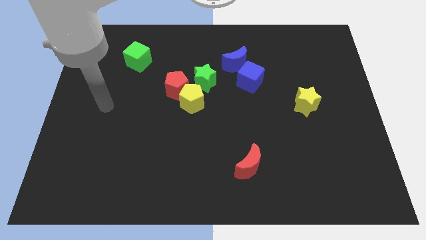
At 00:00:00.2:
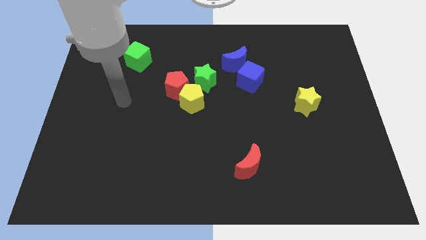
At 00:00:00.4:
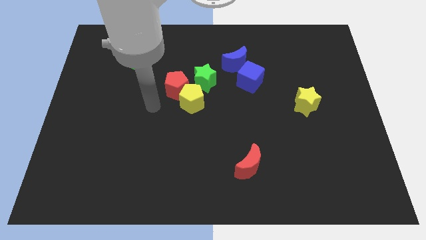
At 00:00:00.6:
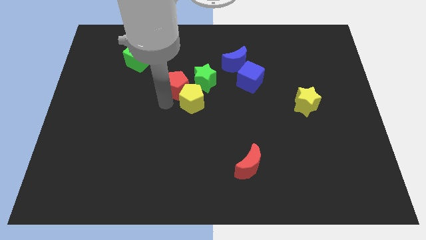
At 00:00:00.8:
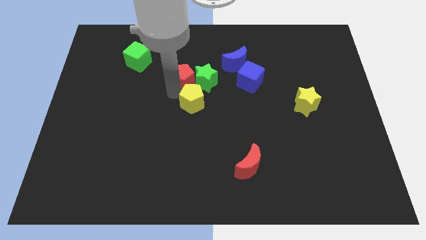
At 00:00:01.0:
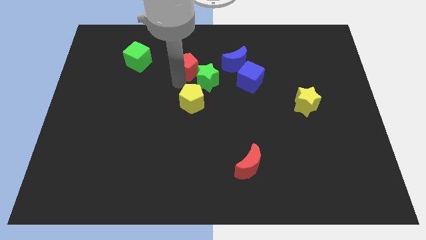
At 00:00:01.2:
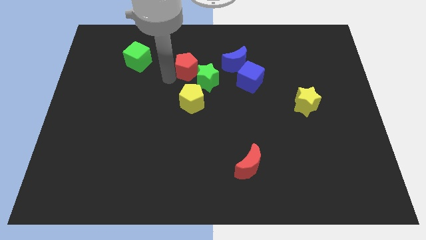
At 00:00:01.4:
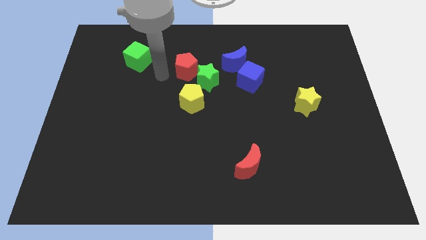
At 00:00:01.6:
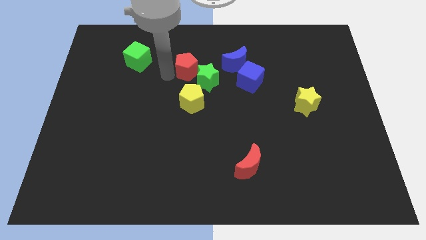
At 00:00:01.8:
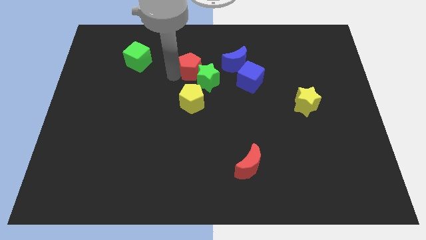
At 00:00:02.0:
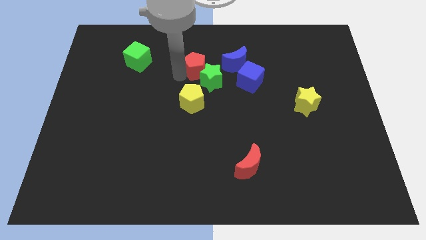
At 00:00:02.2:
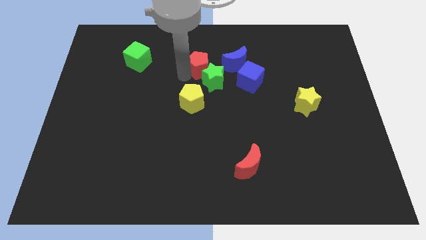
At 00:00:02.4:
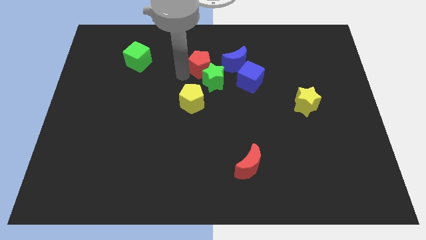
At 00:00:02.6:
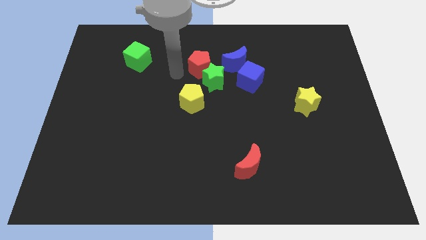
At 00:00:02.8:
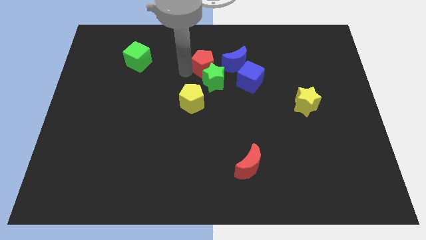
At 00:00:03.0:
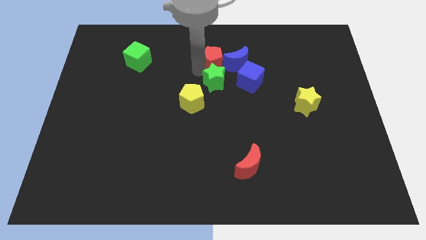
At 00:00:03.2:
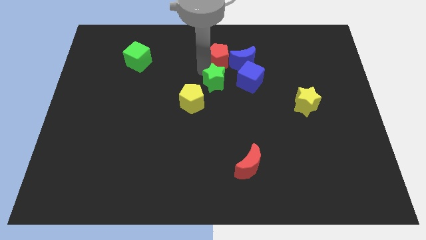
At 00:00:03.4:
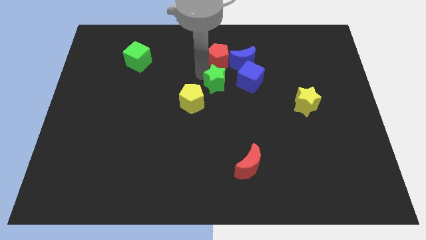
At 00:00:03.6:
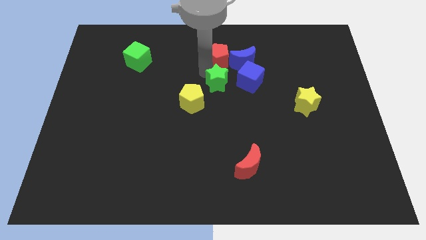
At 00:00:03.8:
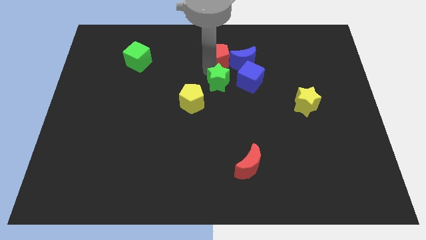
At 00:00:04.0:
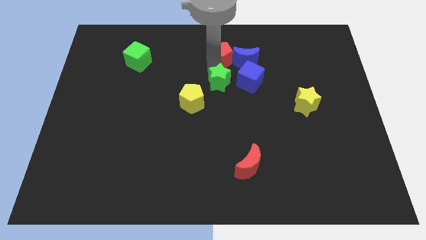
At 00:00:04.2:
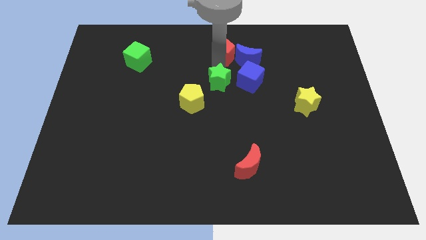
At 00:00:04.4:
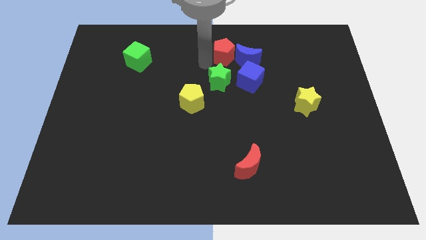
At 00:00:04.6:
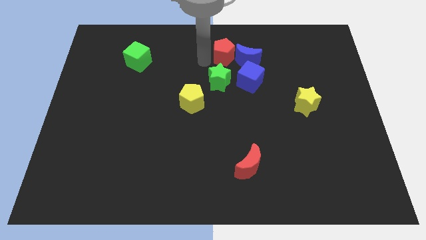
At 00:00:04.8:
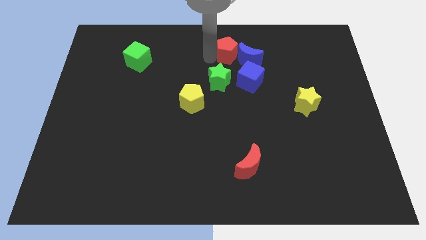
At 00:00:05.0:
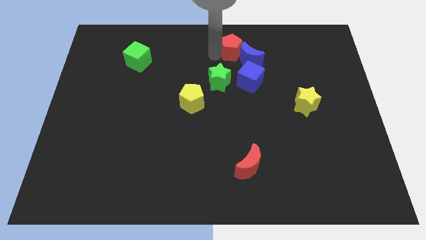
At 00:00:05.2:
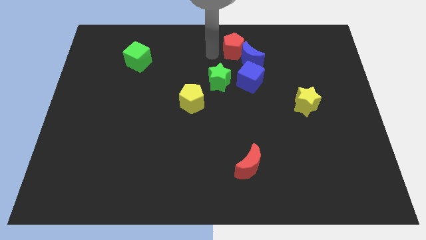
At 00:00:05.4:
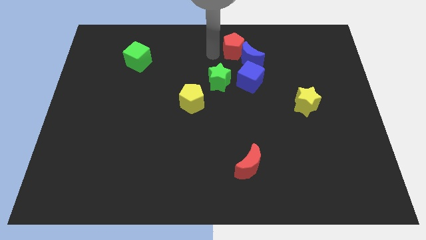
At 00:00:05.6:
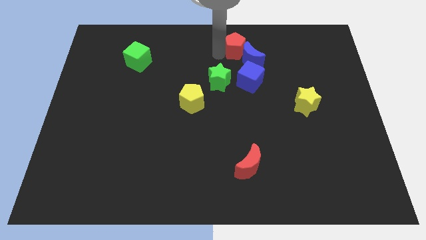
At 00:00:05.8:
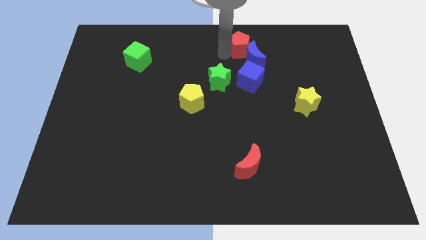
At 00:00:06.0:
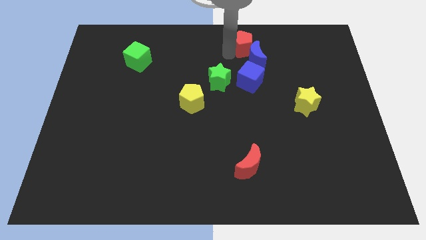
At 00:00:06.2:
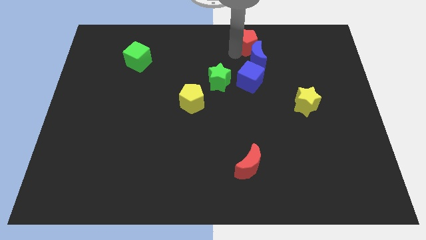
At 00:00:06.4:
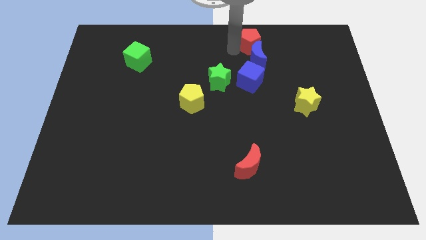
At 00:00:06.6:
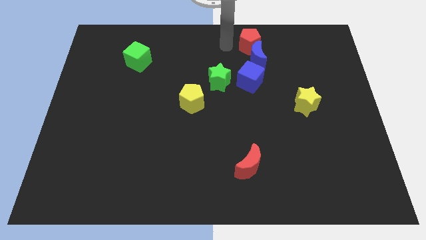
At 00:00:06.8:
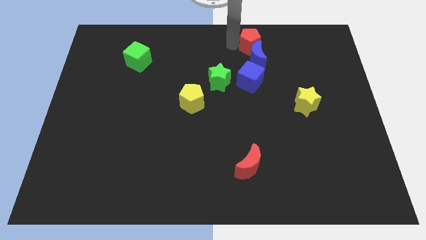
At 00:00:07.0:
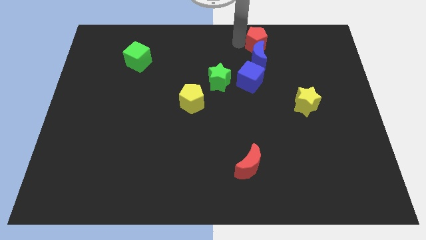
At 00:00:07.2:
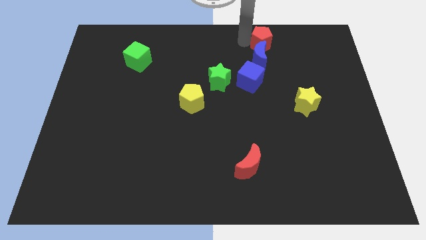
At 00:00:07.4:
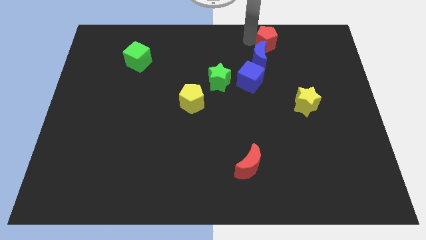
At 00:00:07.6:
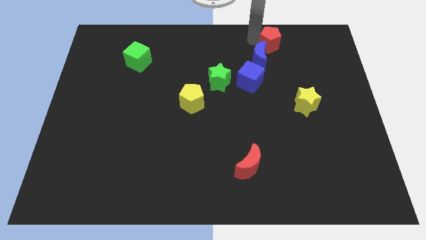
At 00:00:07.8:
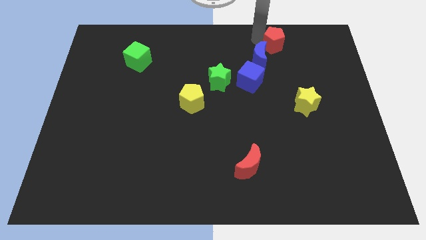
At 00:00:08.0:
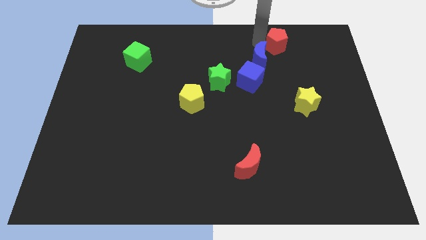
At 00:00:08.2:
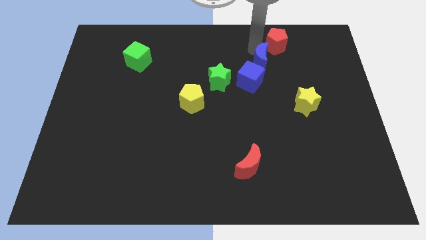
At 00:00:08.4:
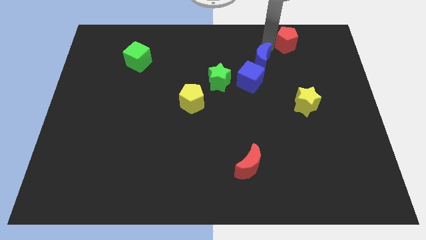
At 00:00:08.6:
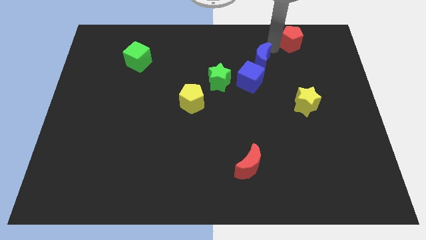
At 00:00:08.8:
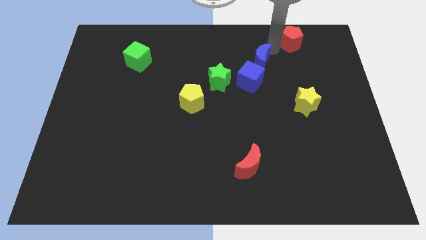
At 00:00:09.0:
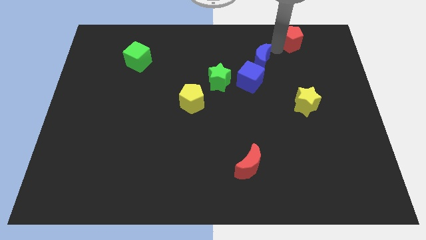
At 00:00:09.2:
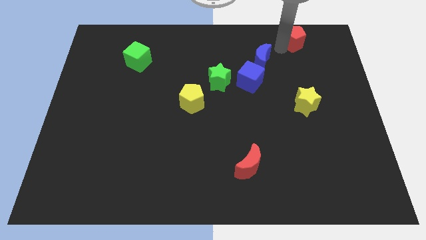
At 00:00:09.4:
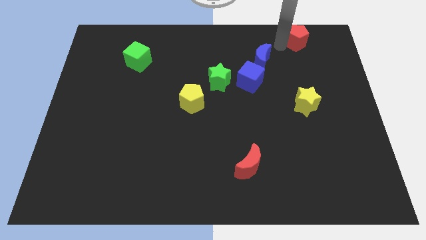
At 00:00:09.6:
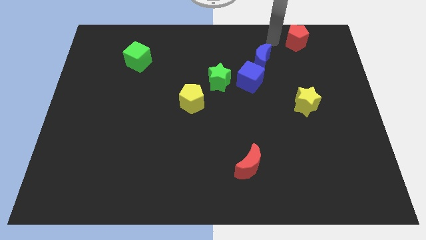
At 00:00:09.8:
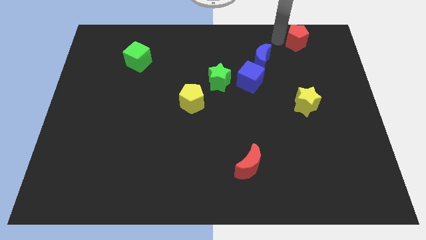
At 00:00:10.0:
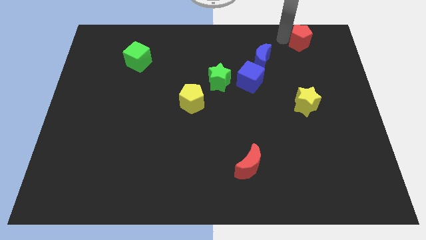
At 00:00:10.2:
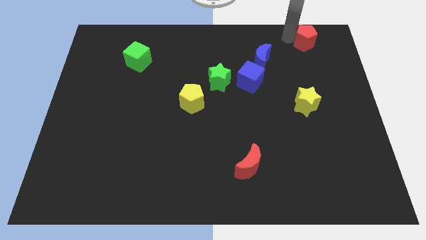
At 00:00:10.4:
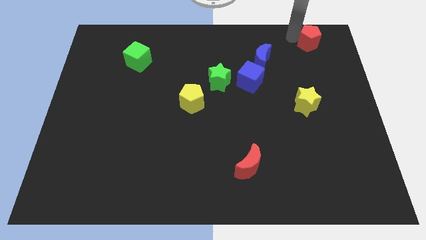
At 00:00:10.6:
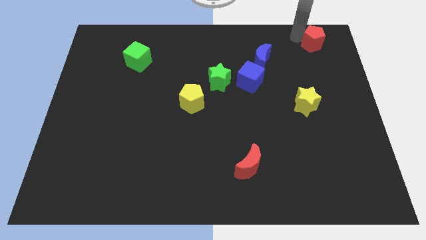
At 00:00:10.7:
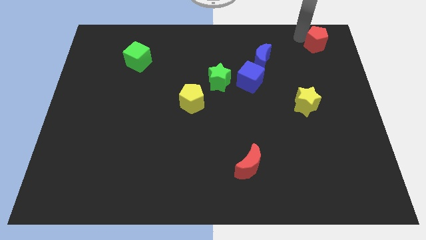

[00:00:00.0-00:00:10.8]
move the red pentagon to the top right corner
